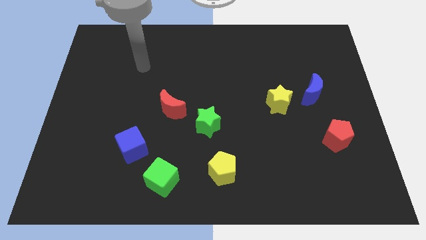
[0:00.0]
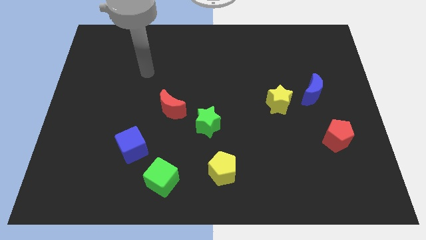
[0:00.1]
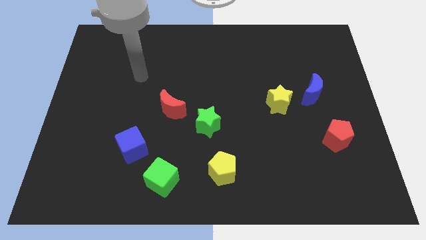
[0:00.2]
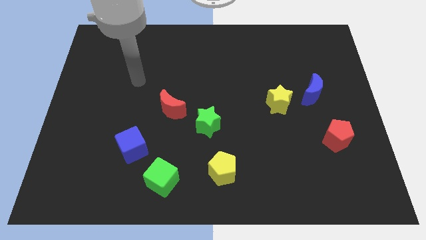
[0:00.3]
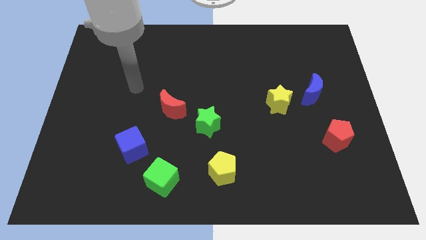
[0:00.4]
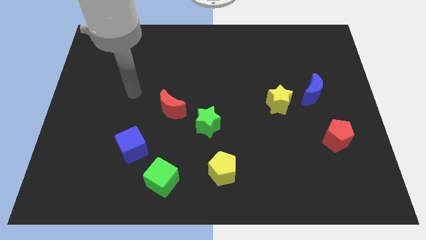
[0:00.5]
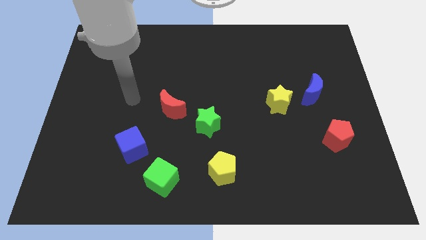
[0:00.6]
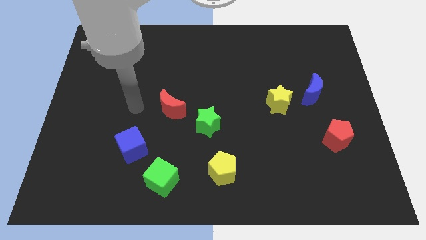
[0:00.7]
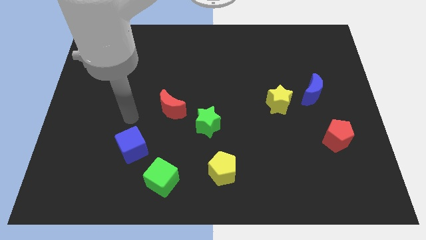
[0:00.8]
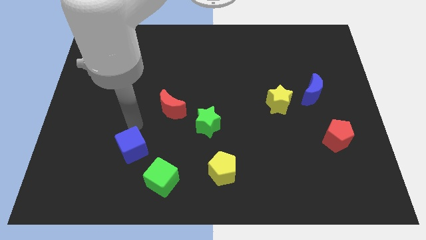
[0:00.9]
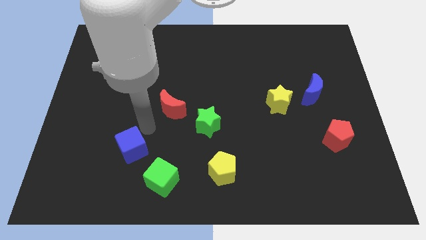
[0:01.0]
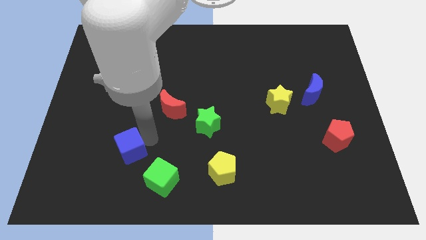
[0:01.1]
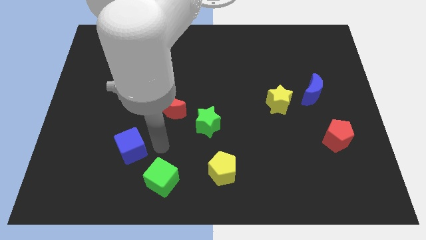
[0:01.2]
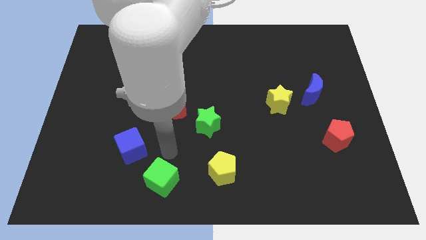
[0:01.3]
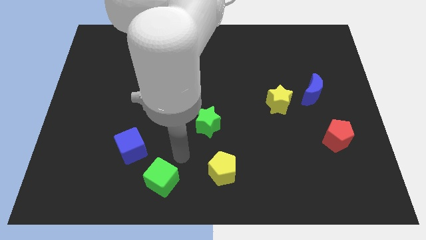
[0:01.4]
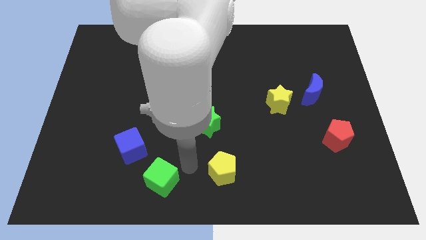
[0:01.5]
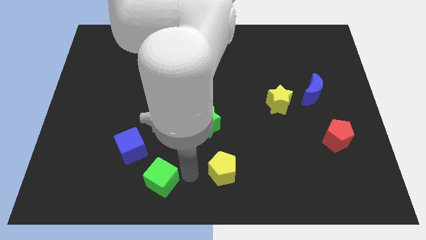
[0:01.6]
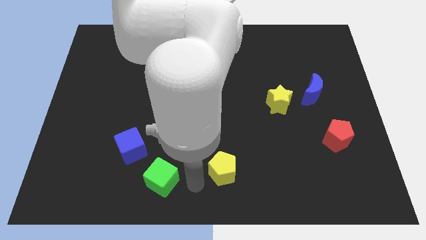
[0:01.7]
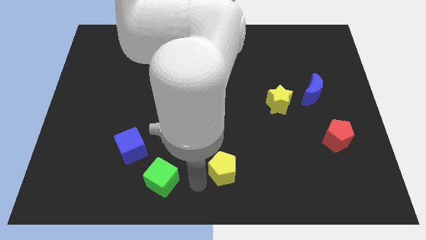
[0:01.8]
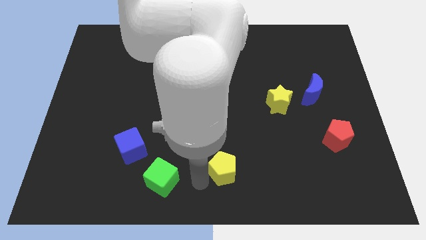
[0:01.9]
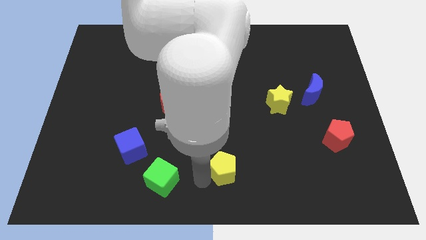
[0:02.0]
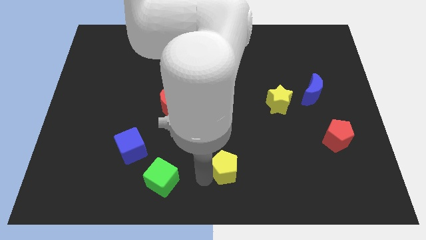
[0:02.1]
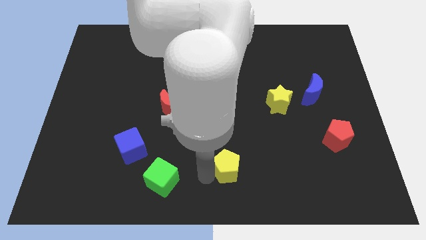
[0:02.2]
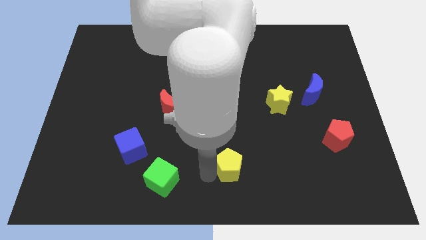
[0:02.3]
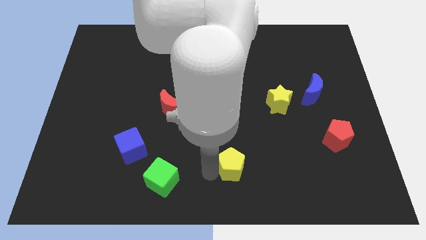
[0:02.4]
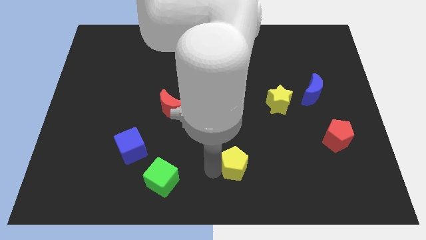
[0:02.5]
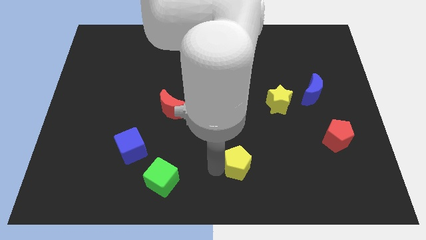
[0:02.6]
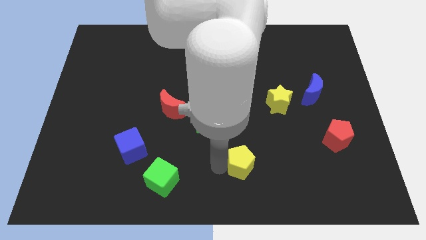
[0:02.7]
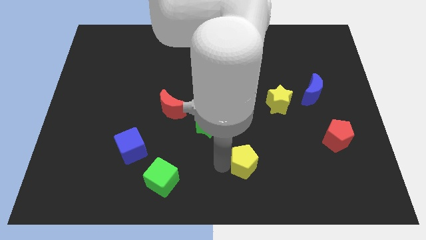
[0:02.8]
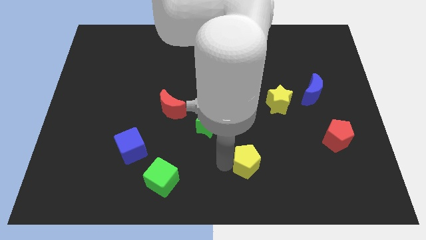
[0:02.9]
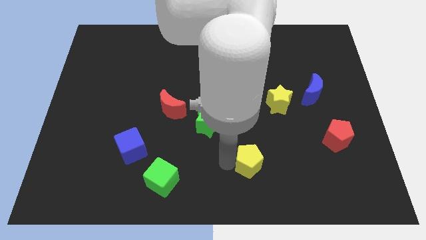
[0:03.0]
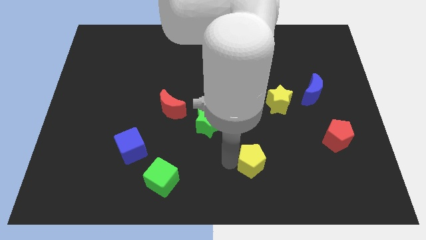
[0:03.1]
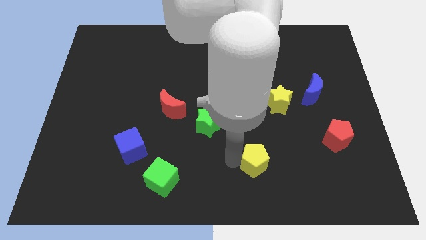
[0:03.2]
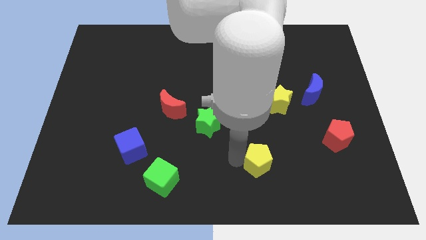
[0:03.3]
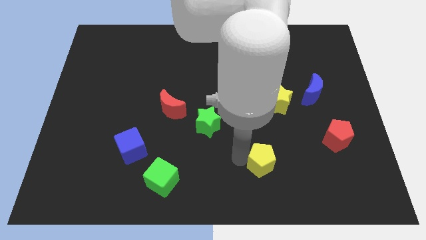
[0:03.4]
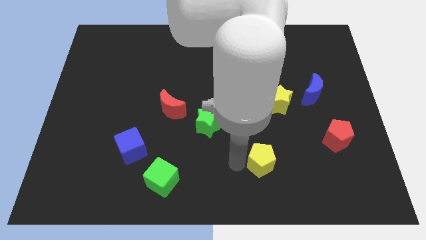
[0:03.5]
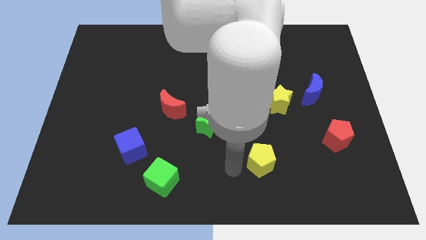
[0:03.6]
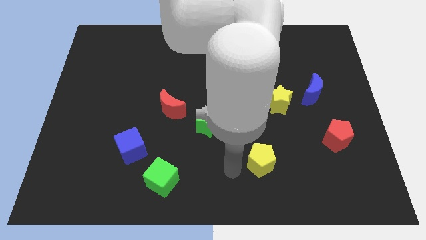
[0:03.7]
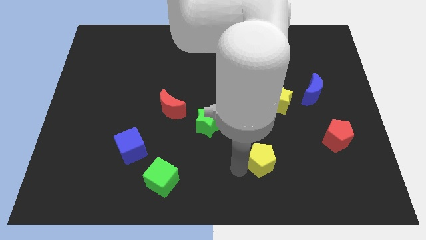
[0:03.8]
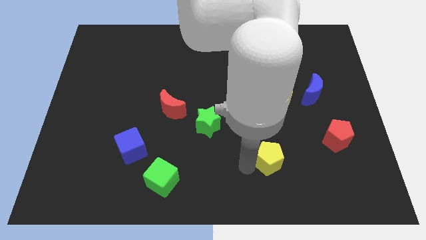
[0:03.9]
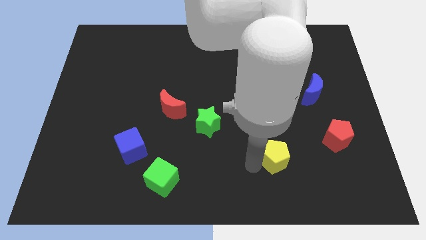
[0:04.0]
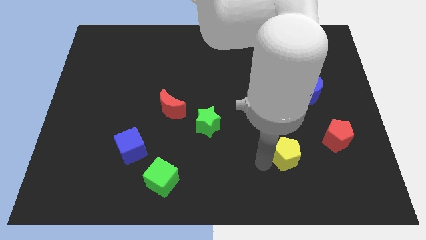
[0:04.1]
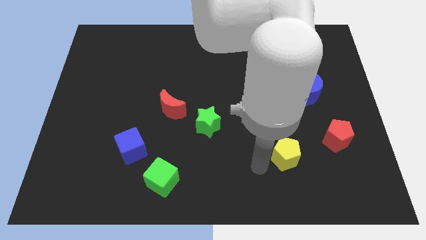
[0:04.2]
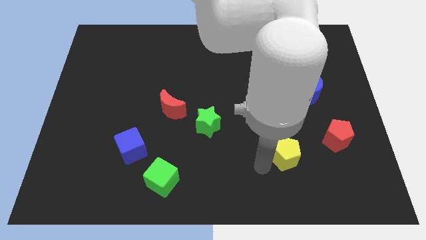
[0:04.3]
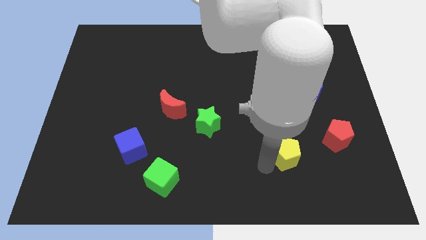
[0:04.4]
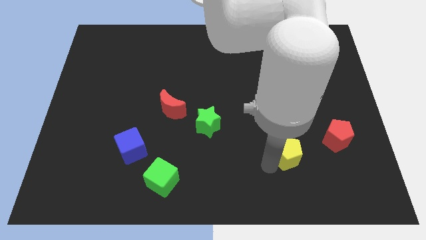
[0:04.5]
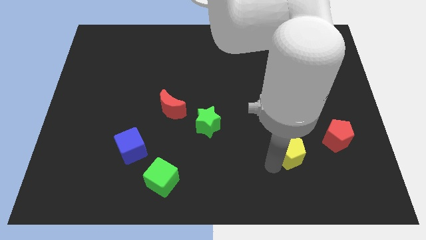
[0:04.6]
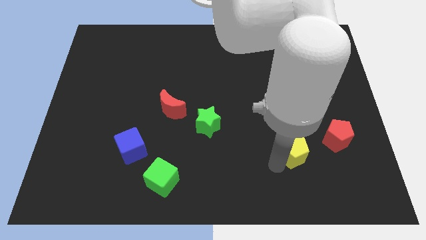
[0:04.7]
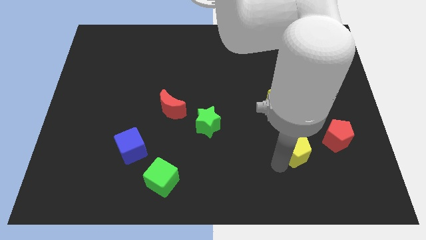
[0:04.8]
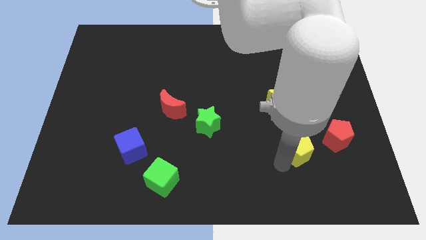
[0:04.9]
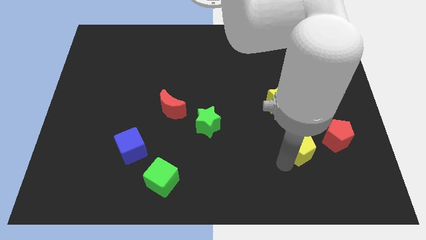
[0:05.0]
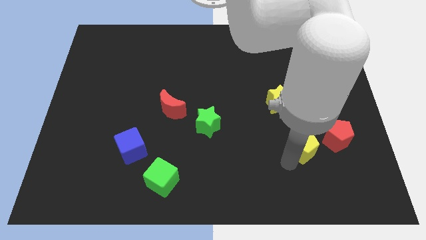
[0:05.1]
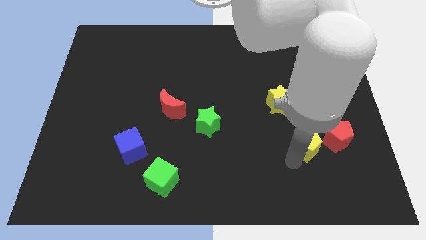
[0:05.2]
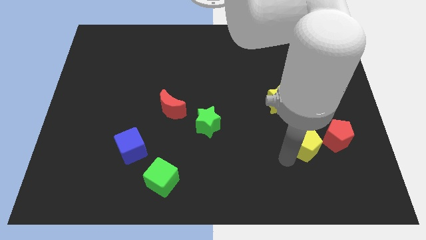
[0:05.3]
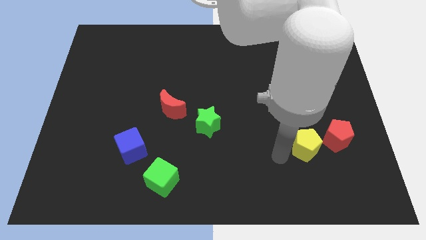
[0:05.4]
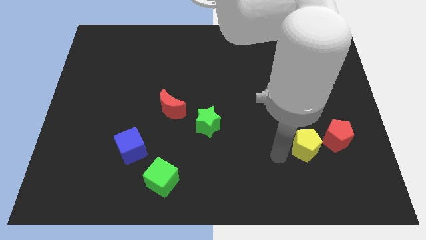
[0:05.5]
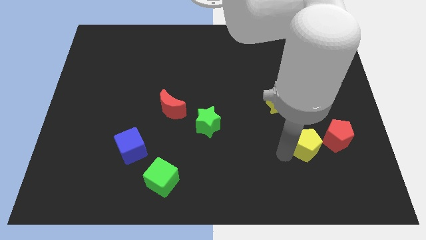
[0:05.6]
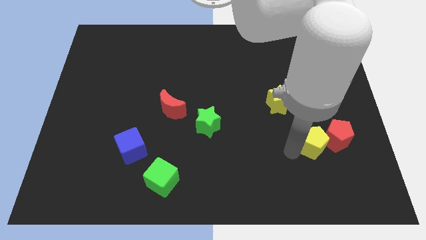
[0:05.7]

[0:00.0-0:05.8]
slide the yellow pentagon close to the red pentagon

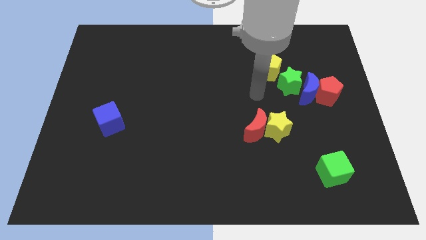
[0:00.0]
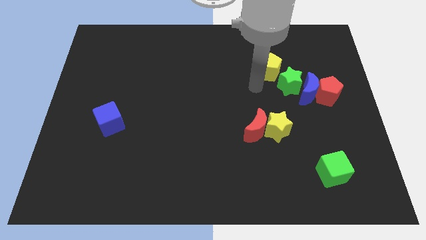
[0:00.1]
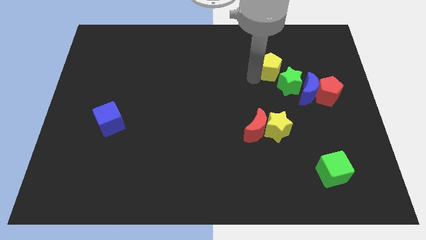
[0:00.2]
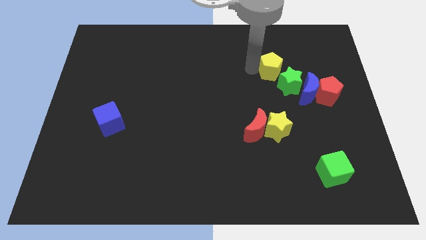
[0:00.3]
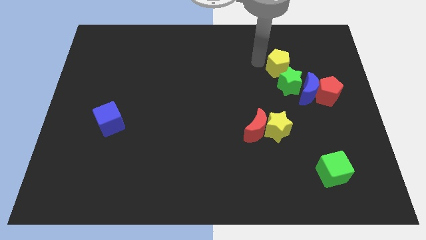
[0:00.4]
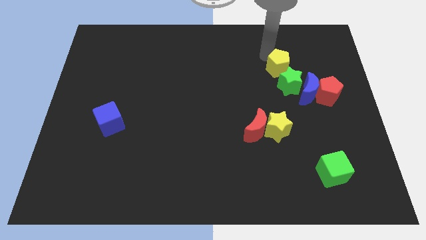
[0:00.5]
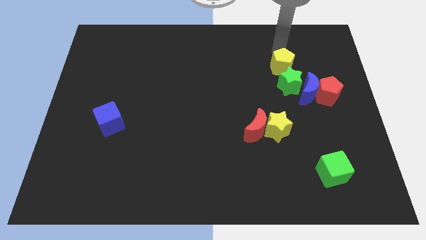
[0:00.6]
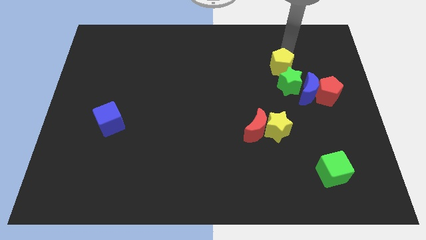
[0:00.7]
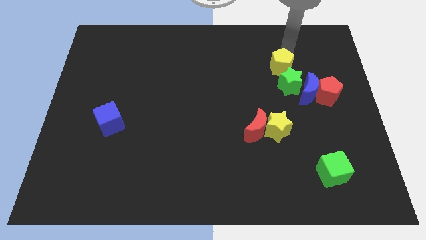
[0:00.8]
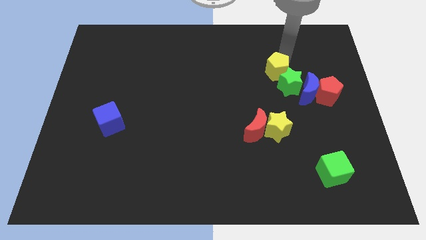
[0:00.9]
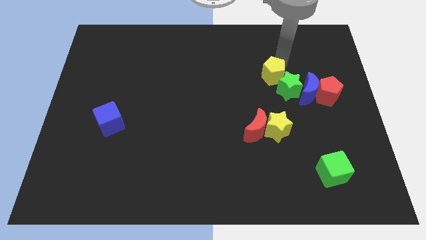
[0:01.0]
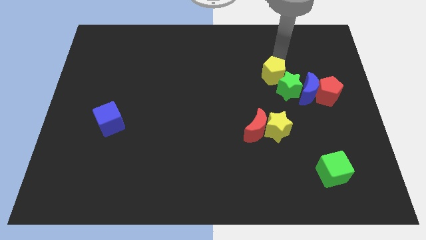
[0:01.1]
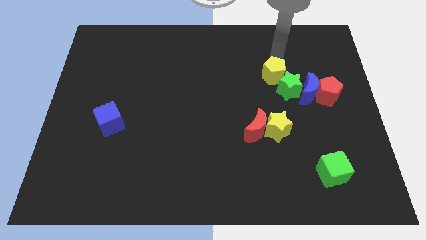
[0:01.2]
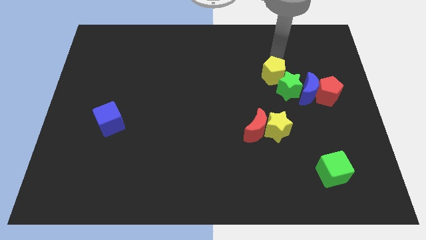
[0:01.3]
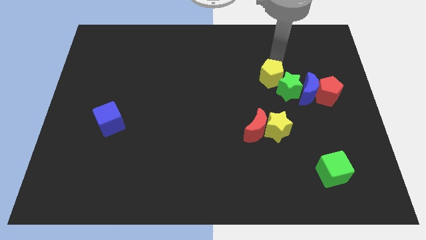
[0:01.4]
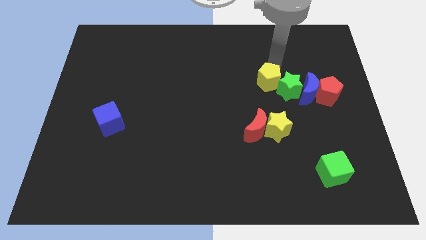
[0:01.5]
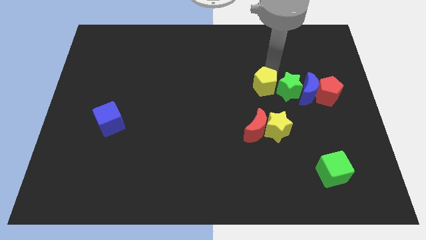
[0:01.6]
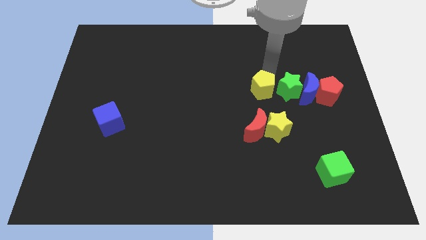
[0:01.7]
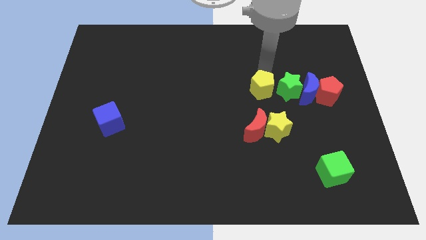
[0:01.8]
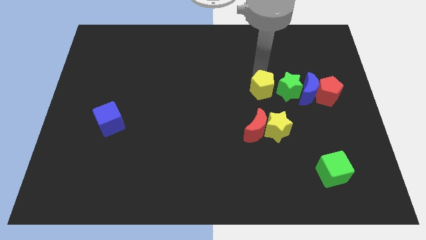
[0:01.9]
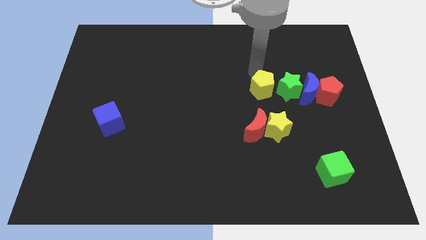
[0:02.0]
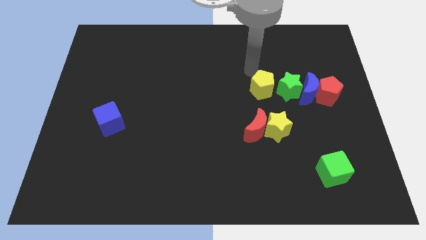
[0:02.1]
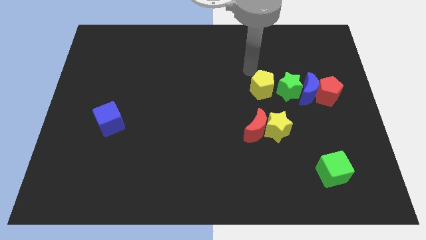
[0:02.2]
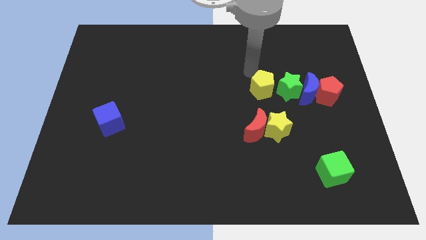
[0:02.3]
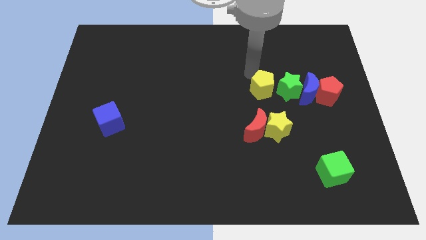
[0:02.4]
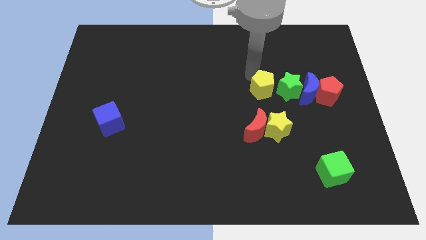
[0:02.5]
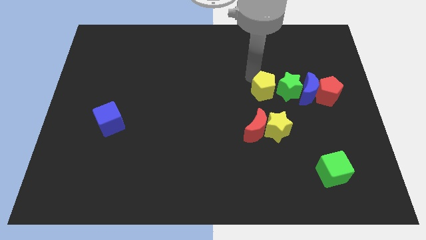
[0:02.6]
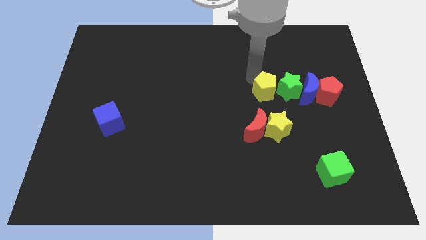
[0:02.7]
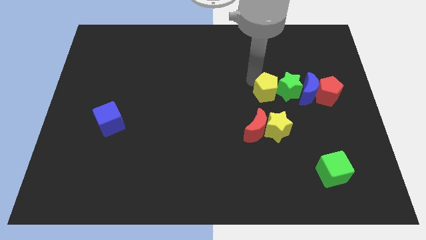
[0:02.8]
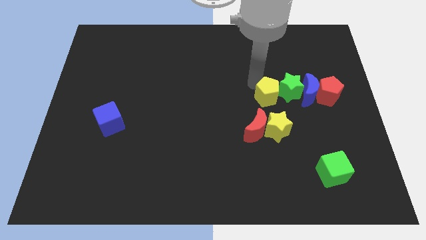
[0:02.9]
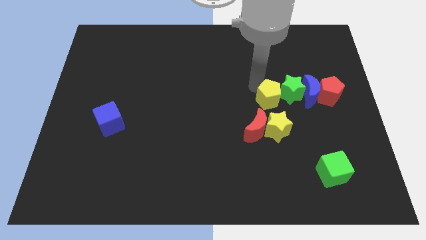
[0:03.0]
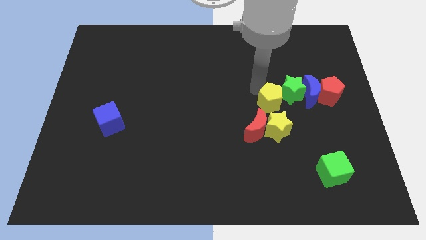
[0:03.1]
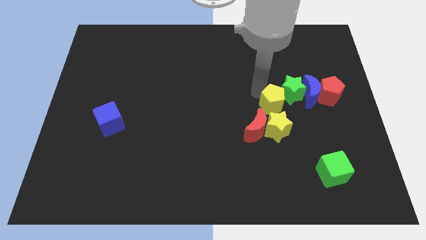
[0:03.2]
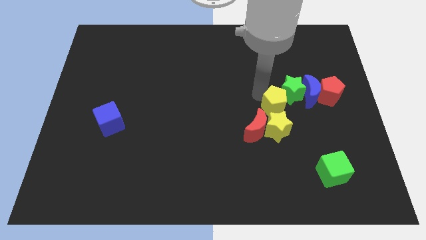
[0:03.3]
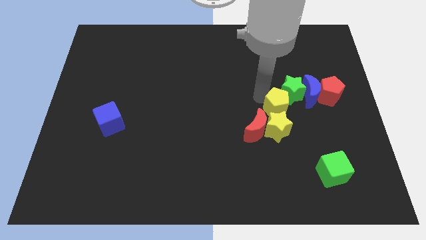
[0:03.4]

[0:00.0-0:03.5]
move the yellow pentagon towards the yellow star
